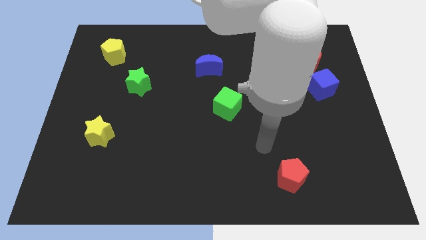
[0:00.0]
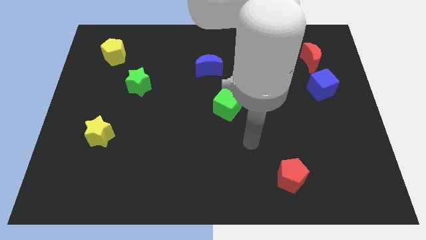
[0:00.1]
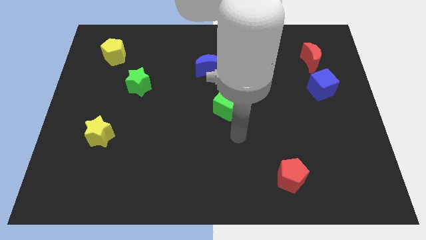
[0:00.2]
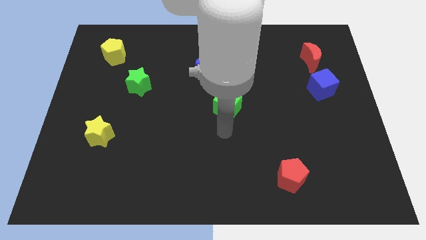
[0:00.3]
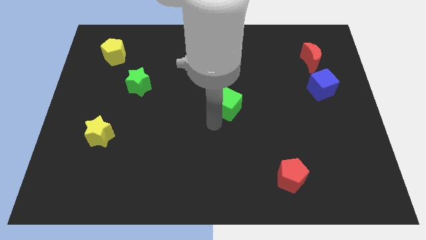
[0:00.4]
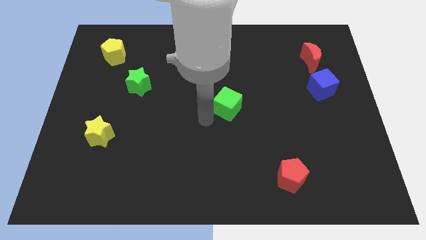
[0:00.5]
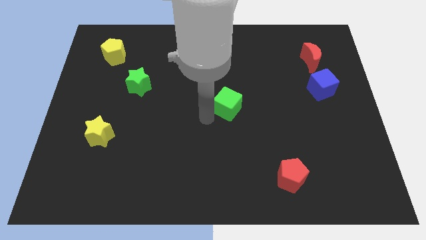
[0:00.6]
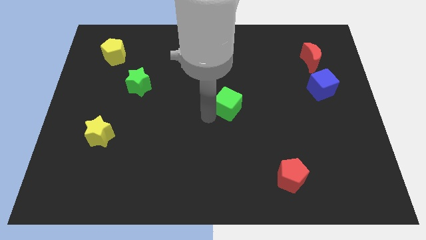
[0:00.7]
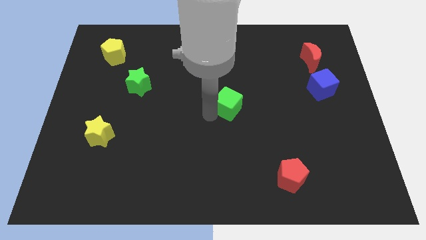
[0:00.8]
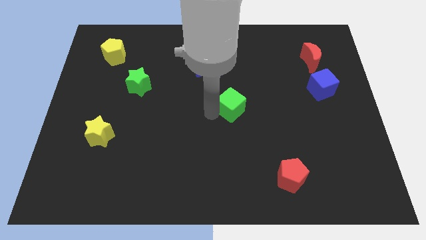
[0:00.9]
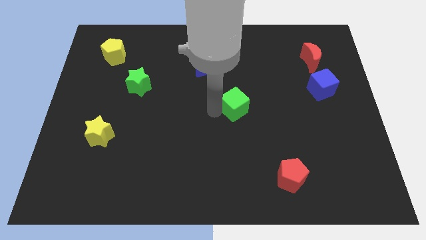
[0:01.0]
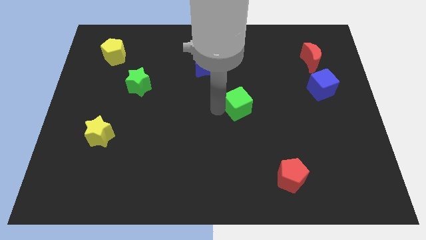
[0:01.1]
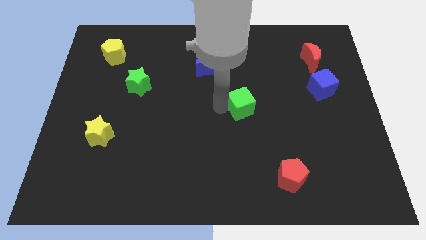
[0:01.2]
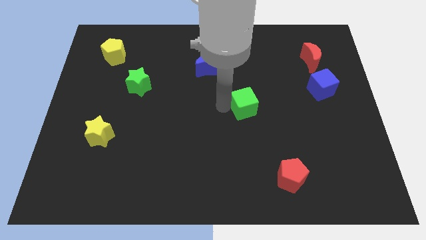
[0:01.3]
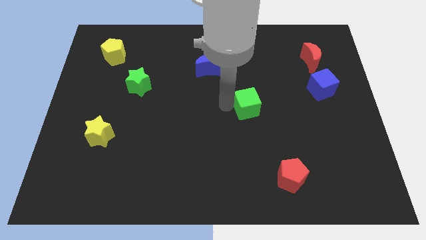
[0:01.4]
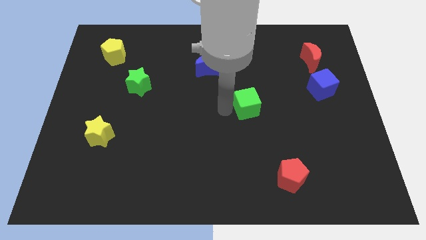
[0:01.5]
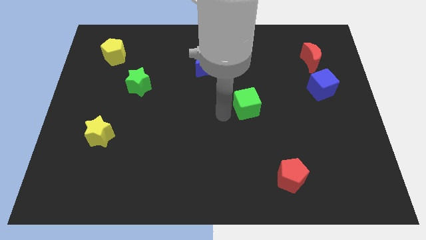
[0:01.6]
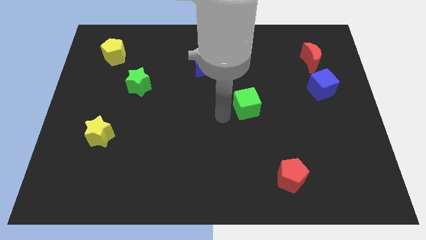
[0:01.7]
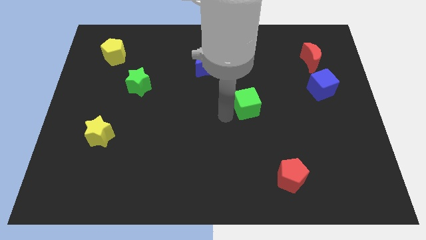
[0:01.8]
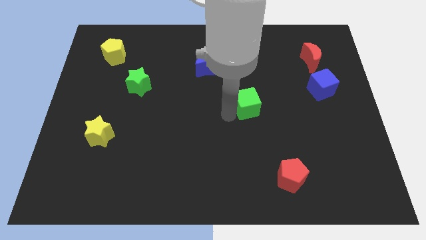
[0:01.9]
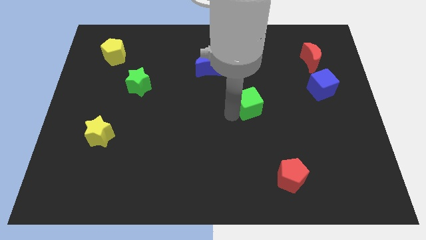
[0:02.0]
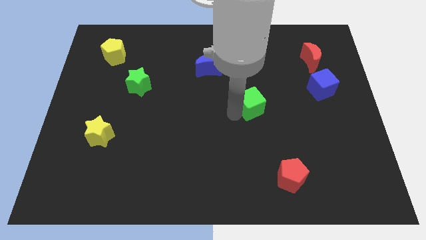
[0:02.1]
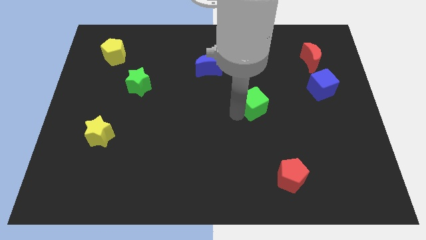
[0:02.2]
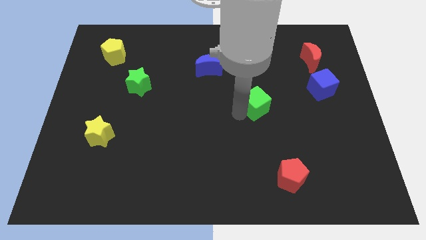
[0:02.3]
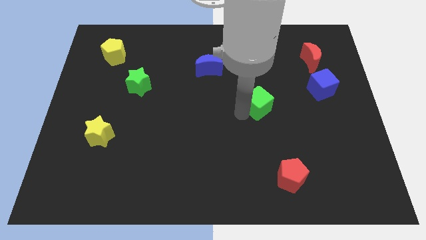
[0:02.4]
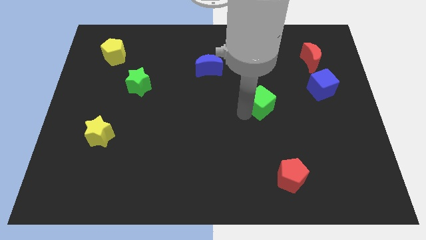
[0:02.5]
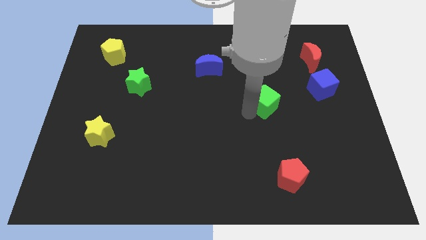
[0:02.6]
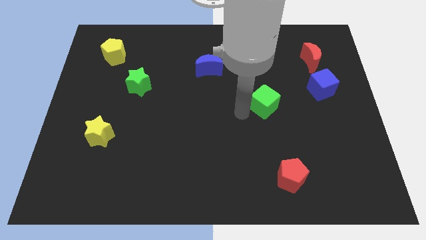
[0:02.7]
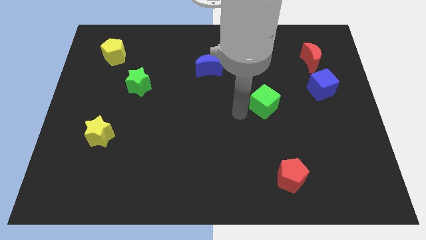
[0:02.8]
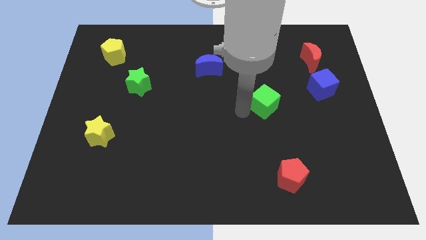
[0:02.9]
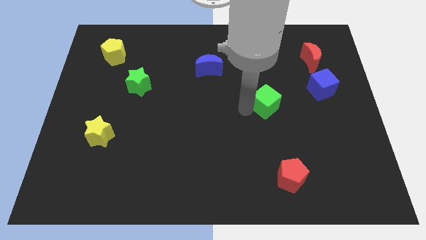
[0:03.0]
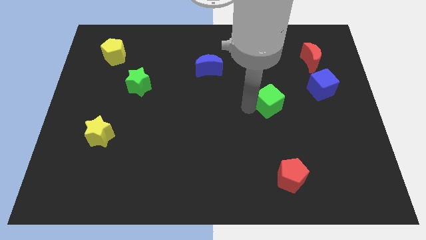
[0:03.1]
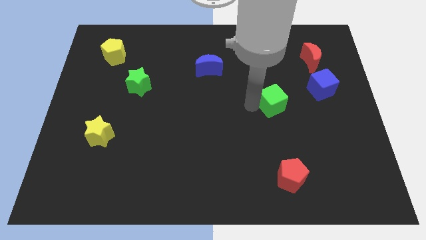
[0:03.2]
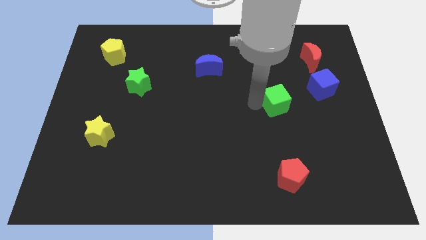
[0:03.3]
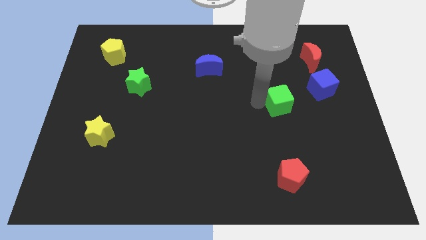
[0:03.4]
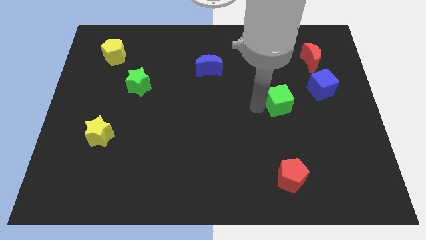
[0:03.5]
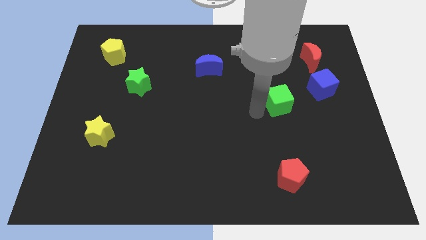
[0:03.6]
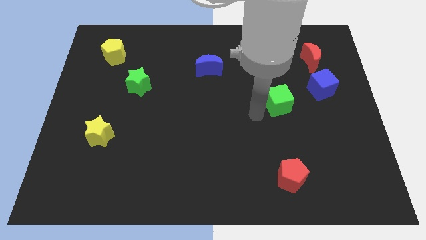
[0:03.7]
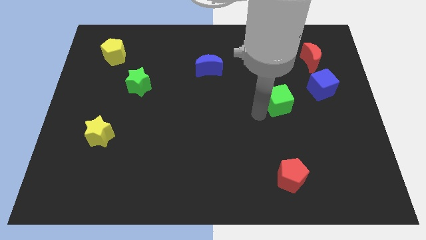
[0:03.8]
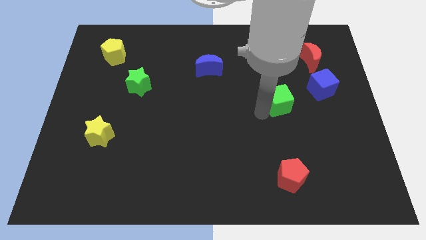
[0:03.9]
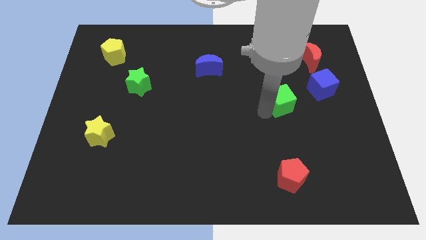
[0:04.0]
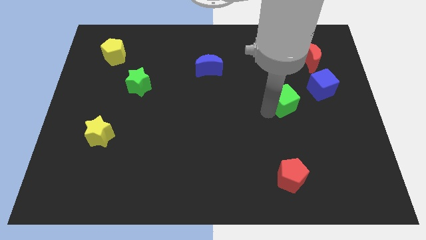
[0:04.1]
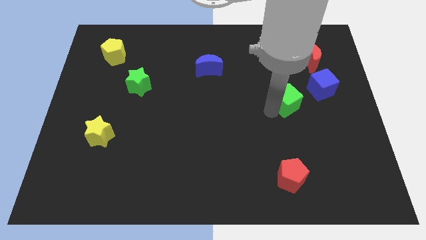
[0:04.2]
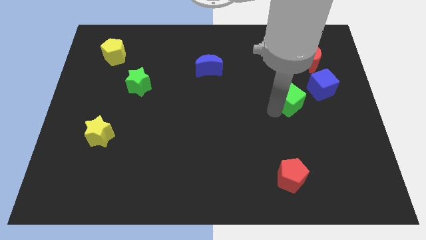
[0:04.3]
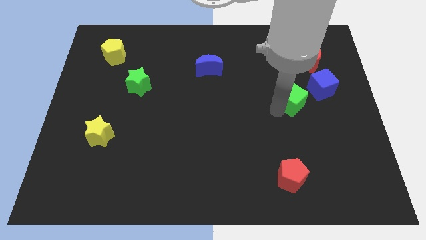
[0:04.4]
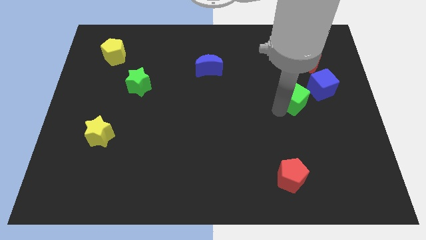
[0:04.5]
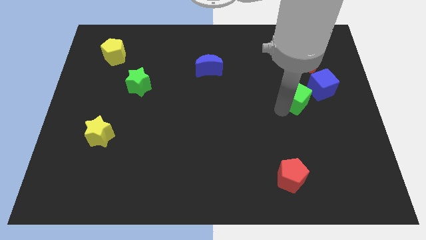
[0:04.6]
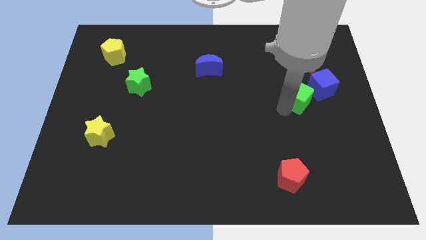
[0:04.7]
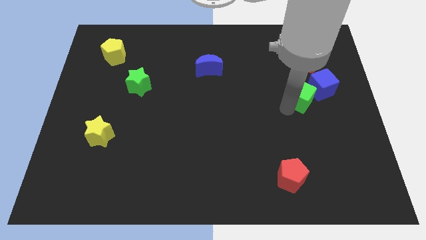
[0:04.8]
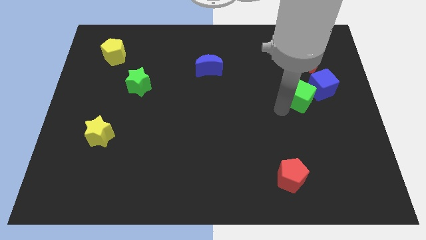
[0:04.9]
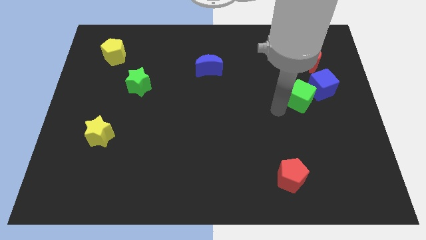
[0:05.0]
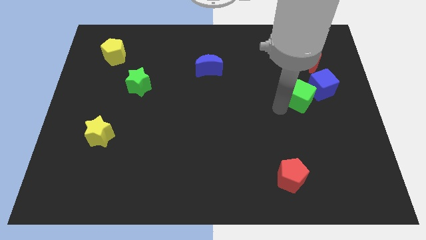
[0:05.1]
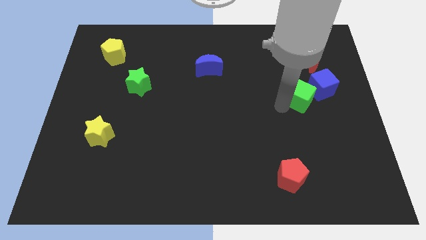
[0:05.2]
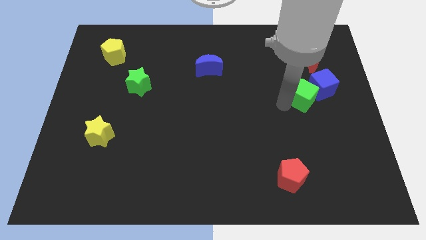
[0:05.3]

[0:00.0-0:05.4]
slide the green cube to the blue cube

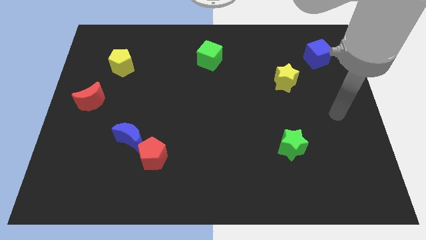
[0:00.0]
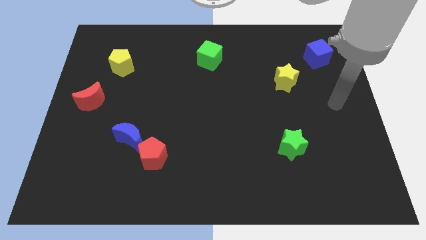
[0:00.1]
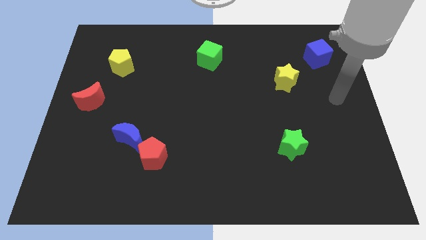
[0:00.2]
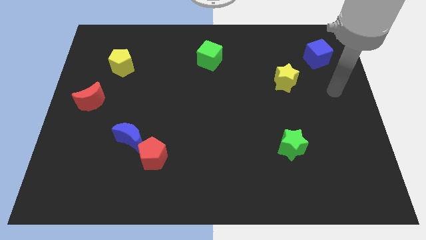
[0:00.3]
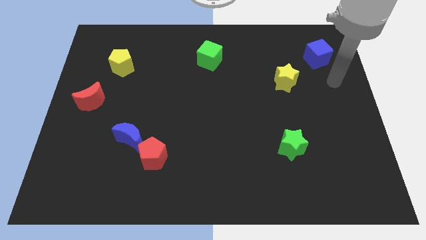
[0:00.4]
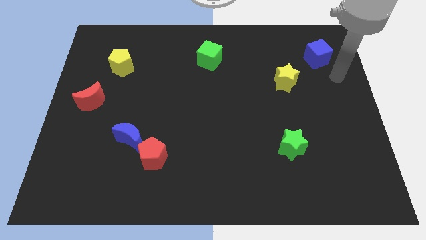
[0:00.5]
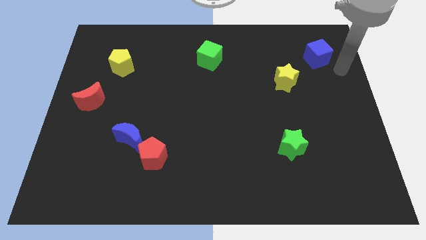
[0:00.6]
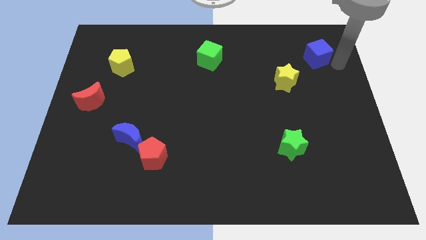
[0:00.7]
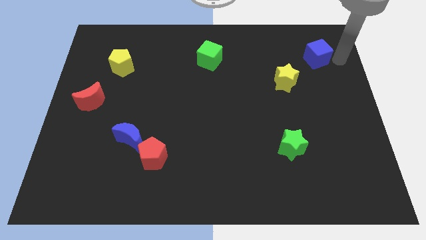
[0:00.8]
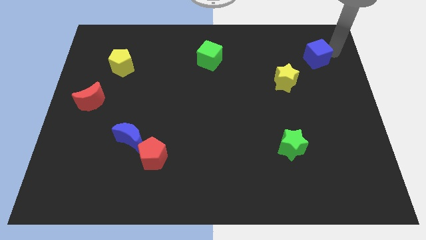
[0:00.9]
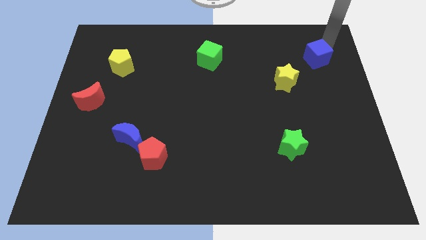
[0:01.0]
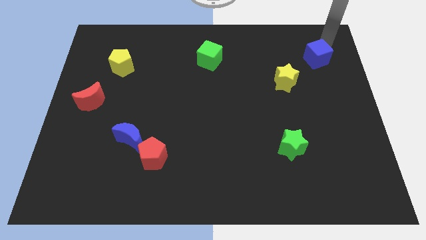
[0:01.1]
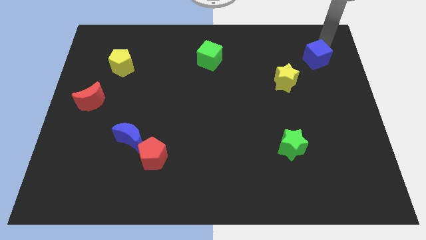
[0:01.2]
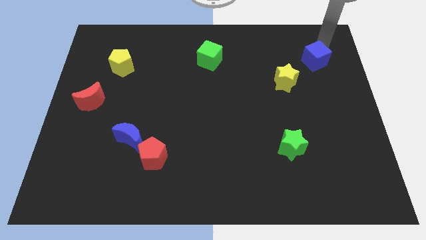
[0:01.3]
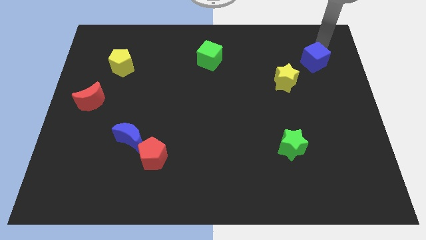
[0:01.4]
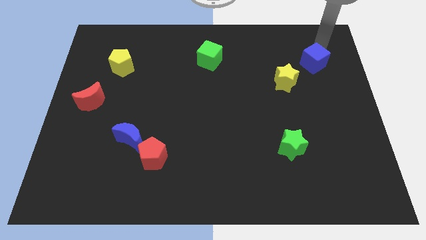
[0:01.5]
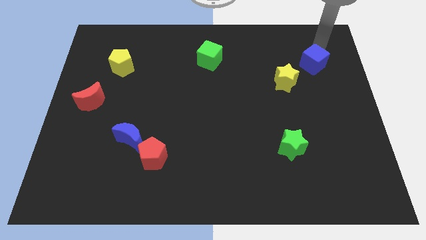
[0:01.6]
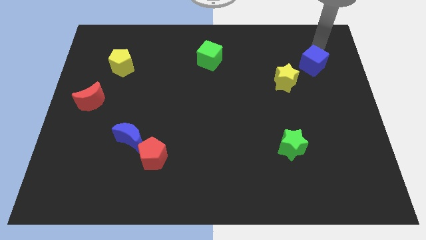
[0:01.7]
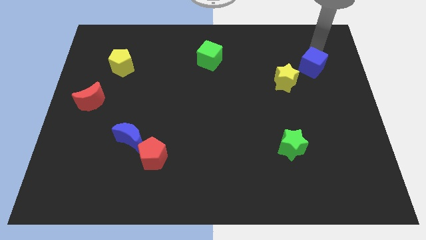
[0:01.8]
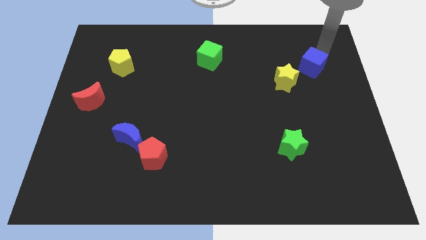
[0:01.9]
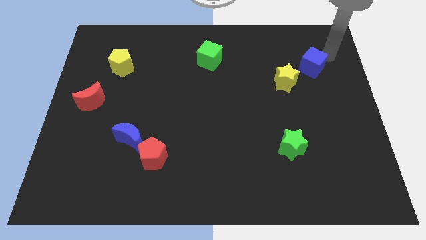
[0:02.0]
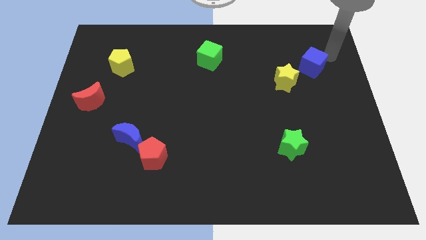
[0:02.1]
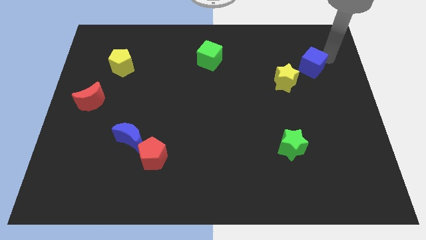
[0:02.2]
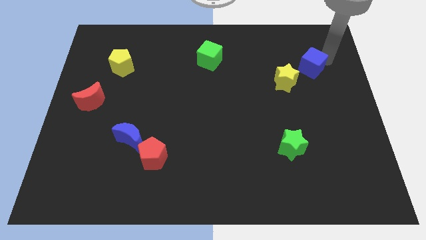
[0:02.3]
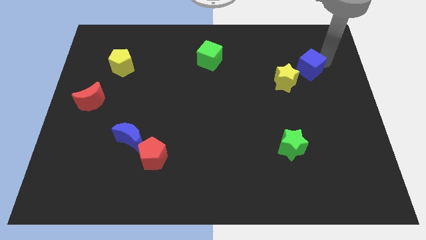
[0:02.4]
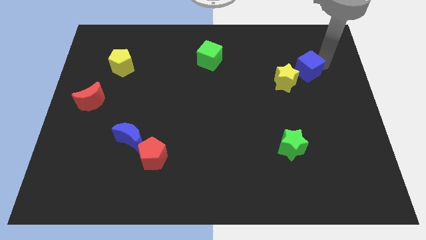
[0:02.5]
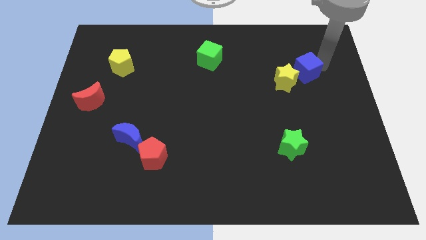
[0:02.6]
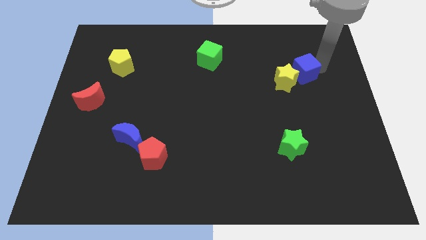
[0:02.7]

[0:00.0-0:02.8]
put the blue cube close to the yellow star

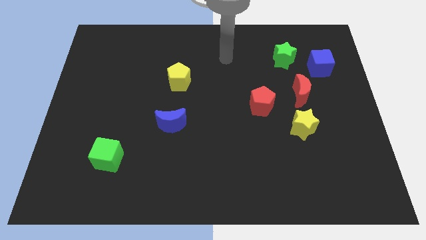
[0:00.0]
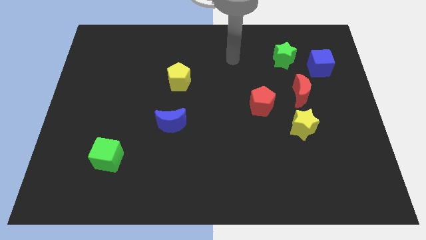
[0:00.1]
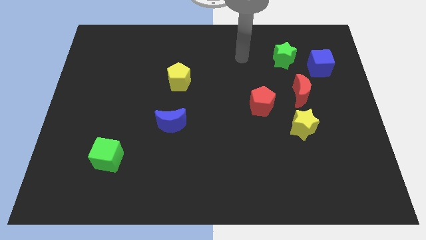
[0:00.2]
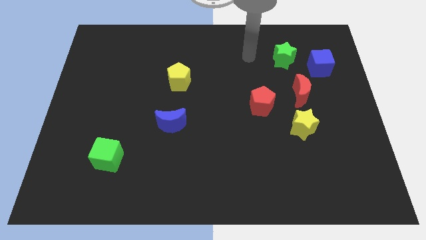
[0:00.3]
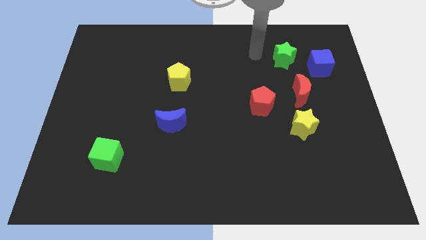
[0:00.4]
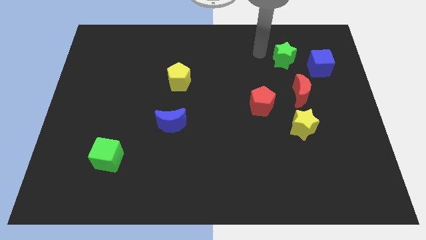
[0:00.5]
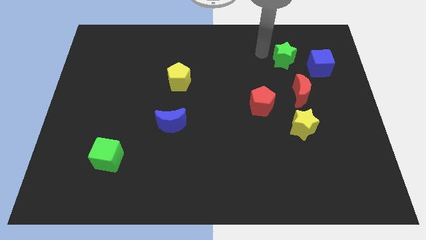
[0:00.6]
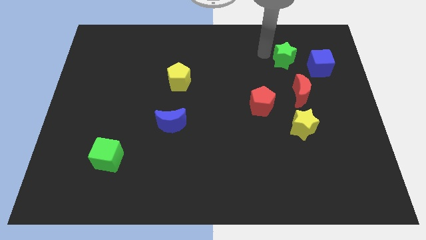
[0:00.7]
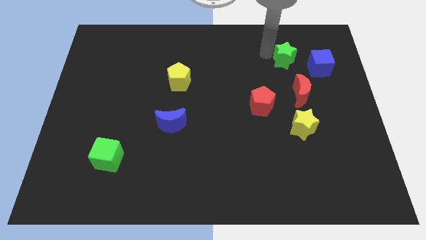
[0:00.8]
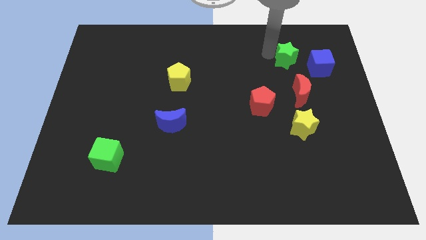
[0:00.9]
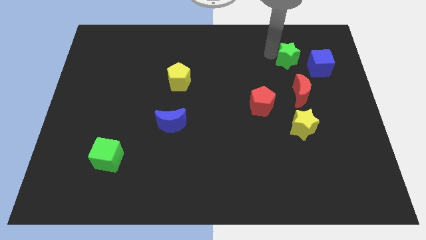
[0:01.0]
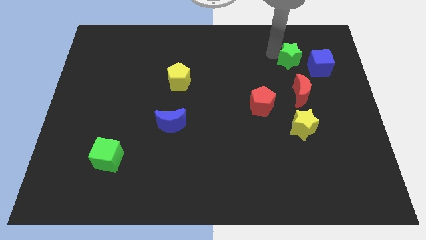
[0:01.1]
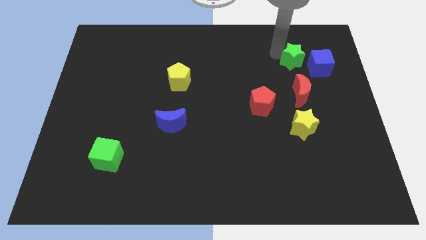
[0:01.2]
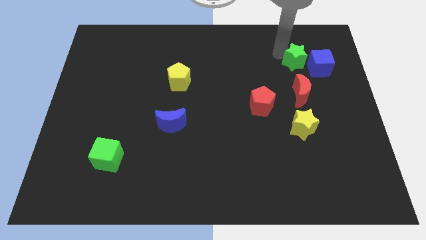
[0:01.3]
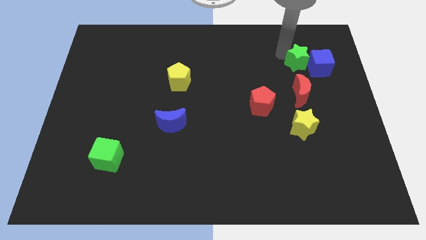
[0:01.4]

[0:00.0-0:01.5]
push the green star close to the blue cube
